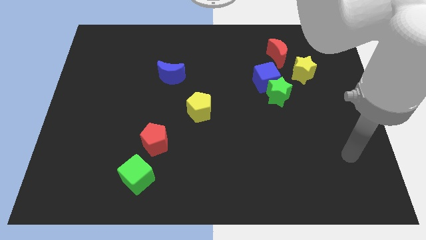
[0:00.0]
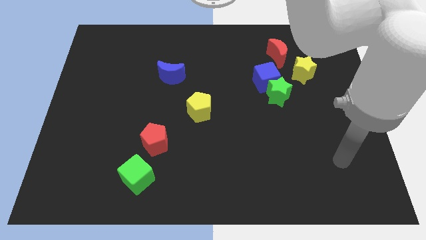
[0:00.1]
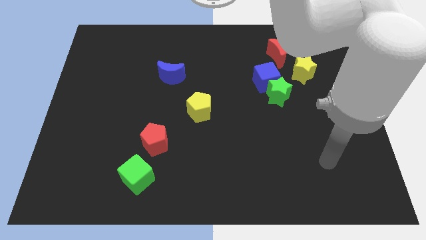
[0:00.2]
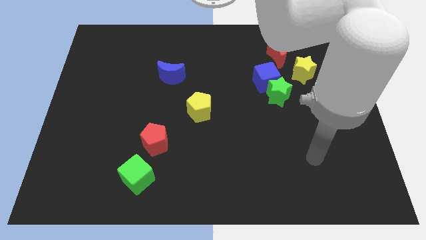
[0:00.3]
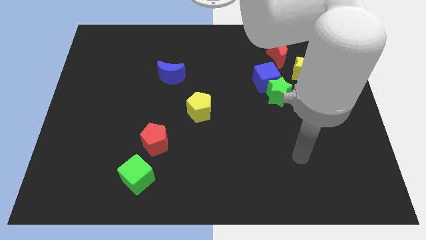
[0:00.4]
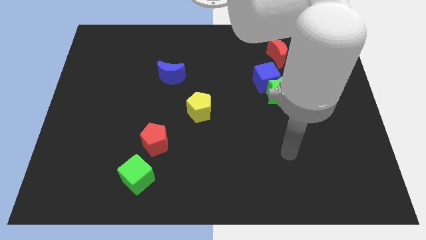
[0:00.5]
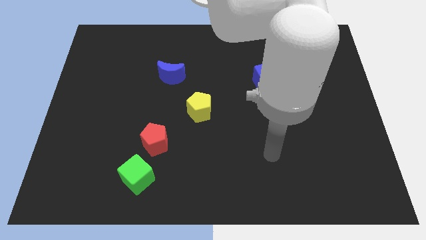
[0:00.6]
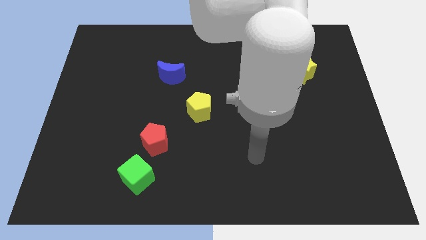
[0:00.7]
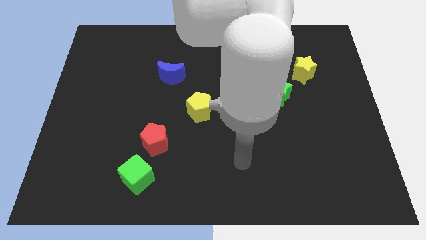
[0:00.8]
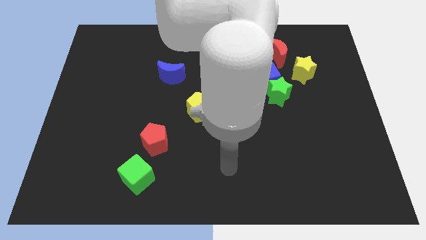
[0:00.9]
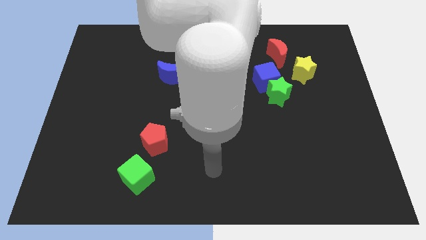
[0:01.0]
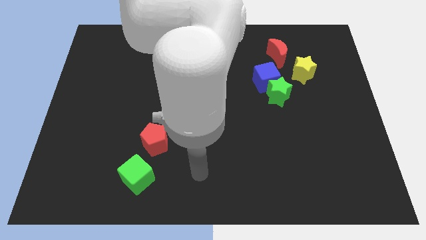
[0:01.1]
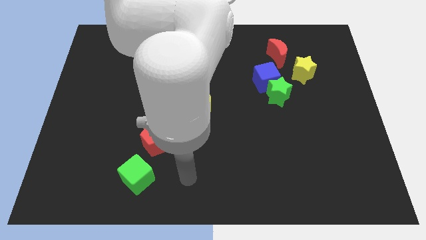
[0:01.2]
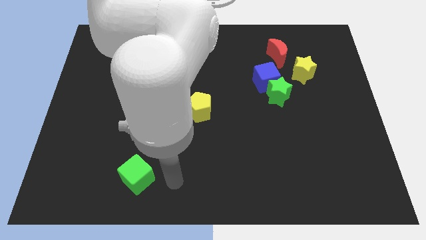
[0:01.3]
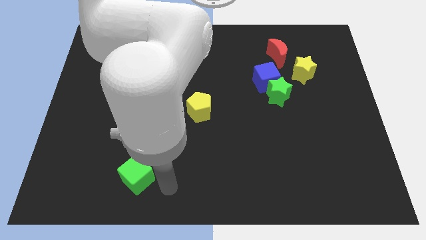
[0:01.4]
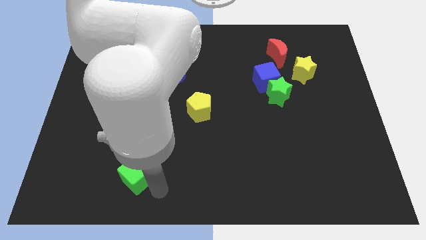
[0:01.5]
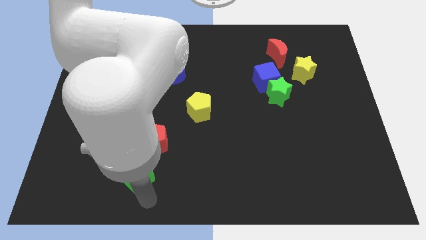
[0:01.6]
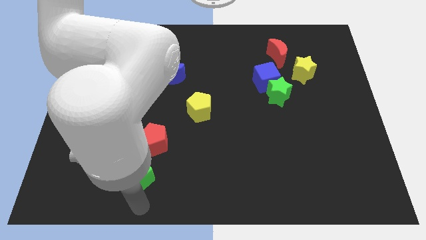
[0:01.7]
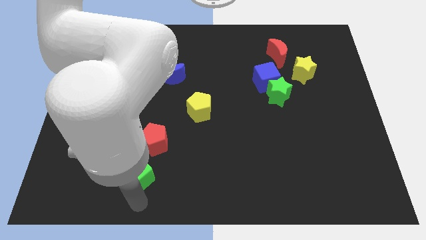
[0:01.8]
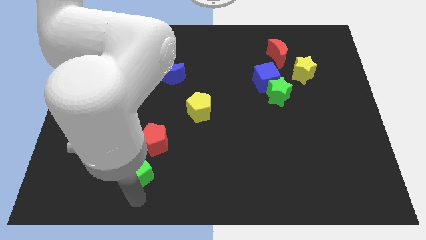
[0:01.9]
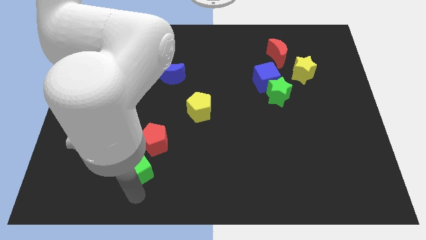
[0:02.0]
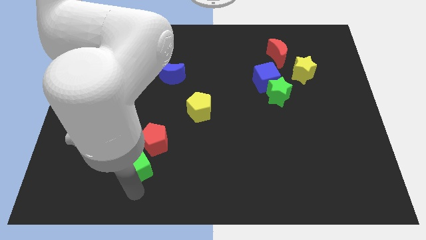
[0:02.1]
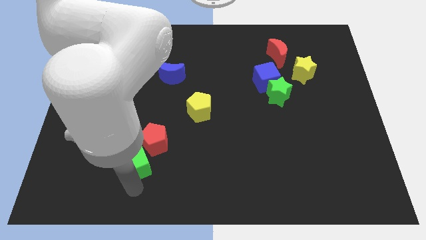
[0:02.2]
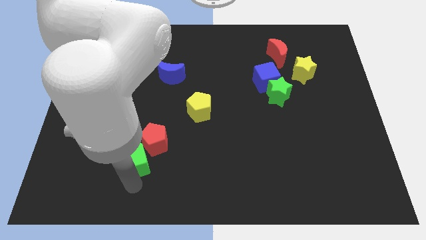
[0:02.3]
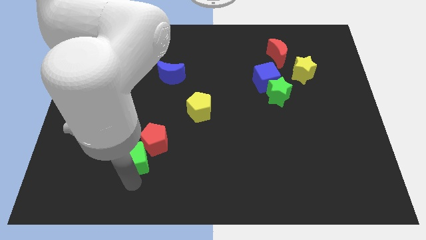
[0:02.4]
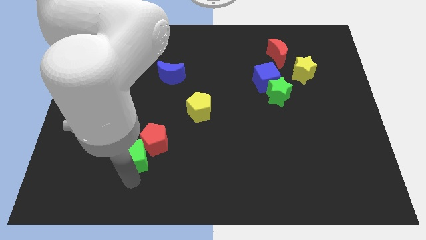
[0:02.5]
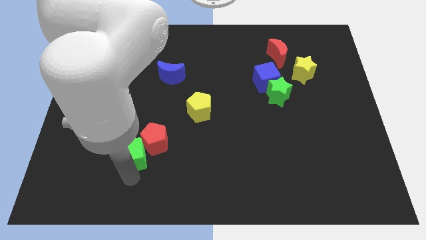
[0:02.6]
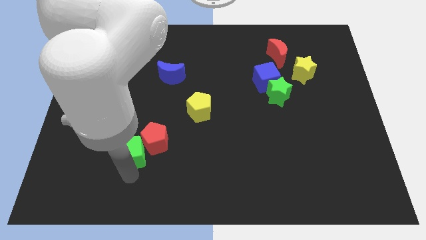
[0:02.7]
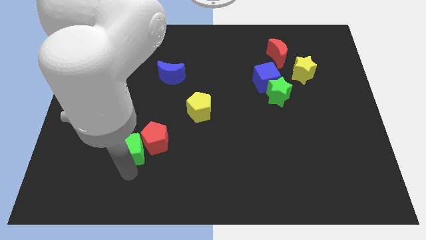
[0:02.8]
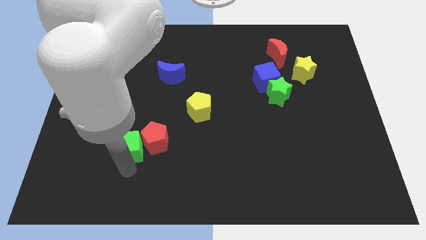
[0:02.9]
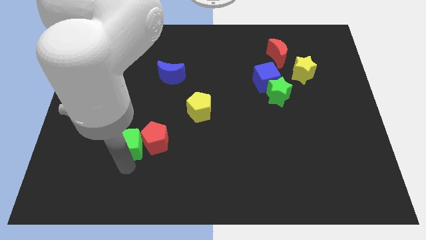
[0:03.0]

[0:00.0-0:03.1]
slightly push the green cube up

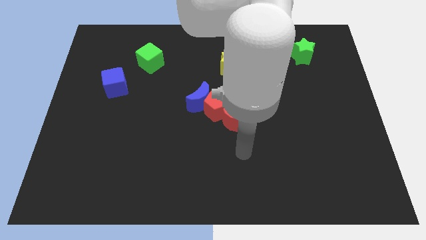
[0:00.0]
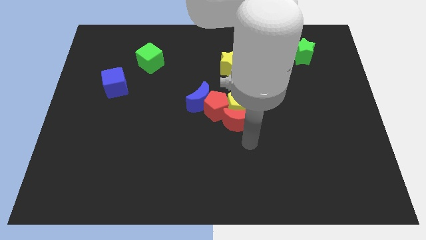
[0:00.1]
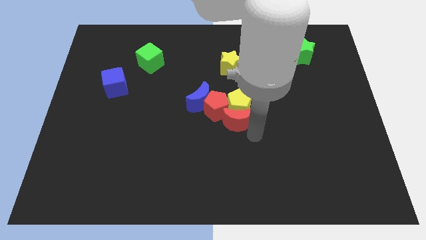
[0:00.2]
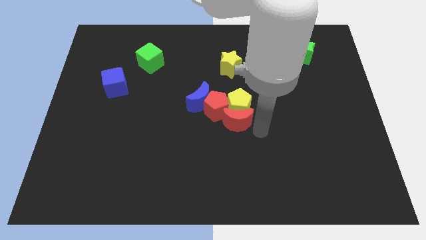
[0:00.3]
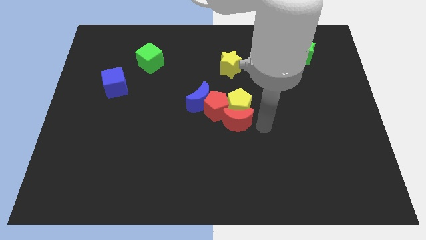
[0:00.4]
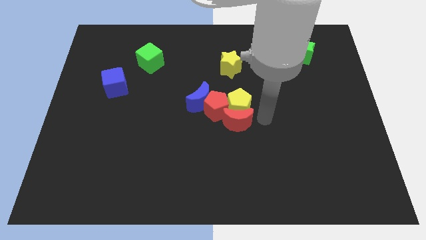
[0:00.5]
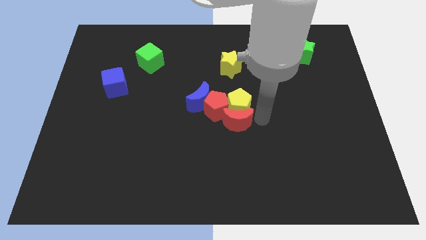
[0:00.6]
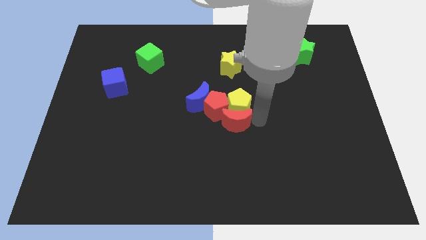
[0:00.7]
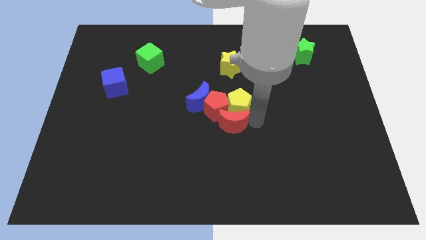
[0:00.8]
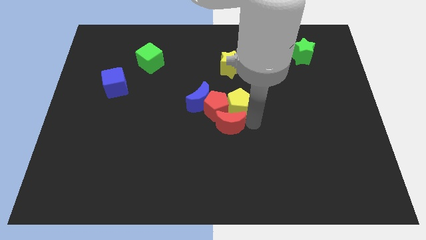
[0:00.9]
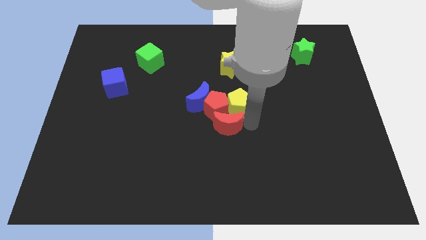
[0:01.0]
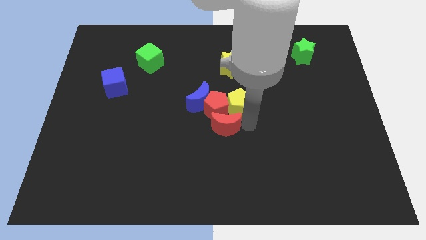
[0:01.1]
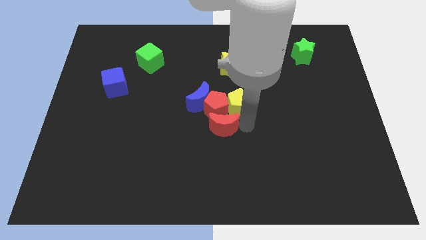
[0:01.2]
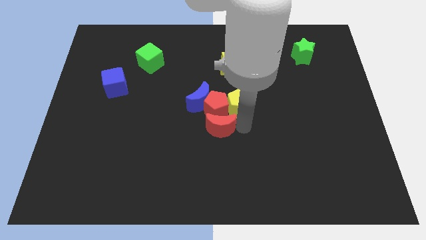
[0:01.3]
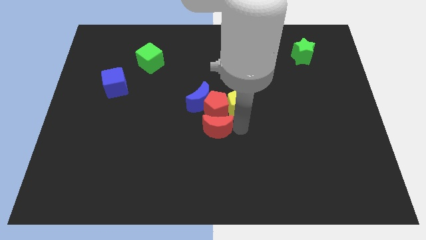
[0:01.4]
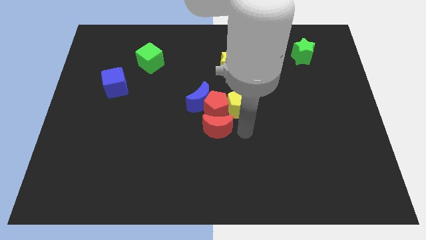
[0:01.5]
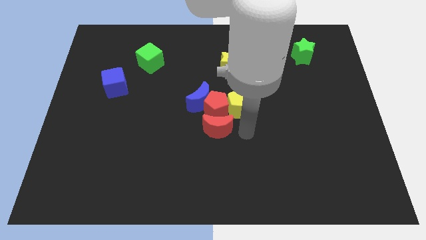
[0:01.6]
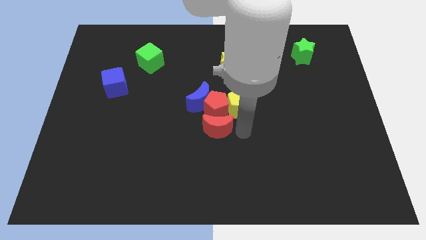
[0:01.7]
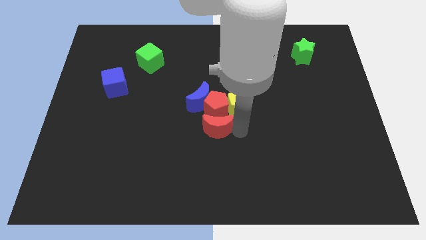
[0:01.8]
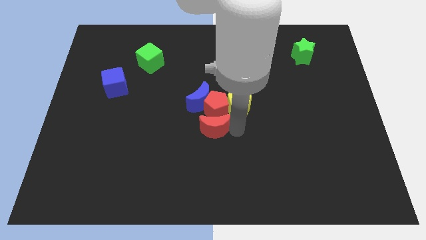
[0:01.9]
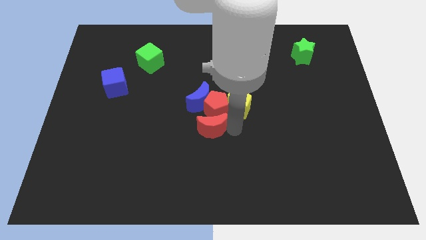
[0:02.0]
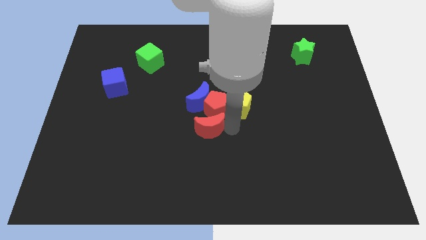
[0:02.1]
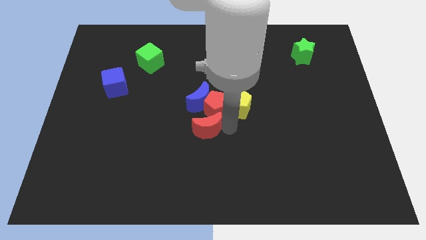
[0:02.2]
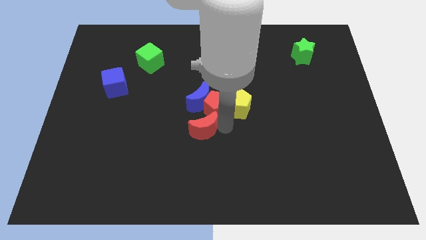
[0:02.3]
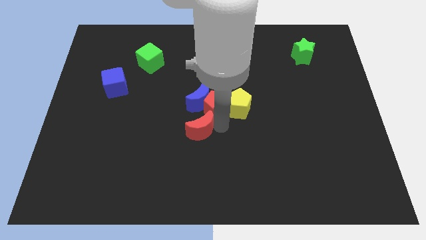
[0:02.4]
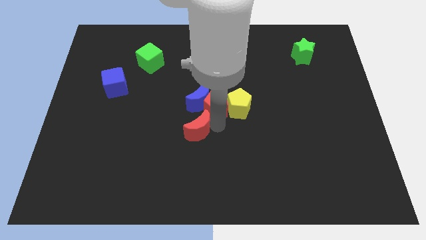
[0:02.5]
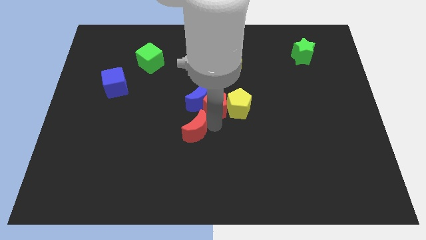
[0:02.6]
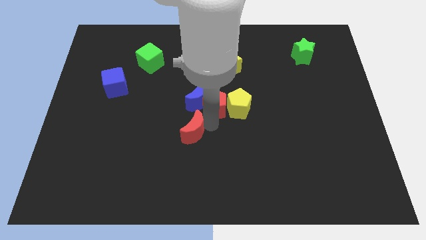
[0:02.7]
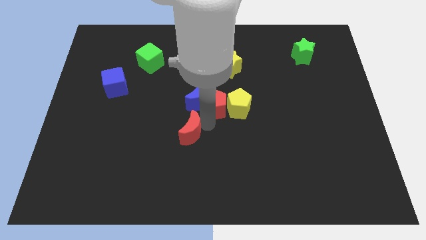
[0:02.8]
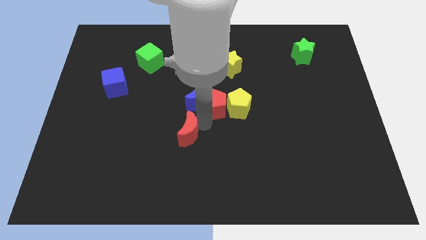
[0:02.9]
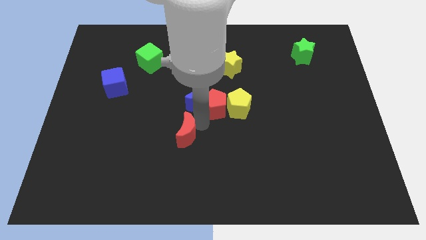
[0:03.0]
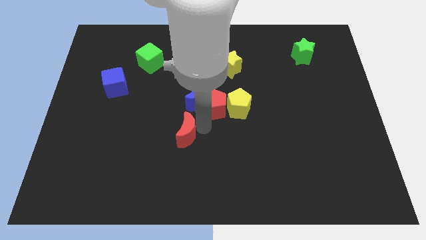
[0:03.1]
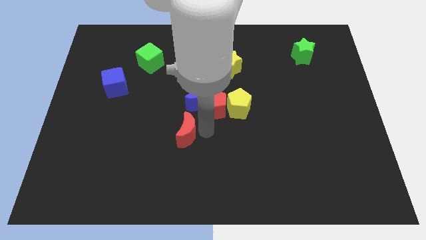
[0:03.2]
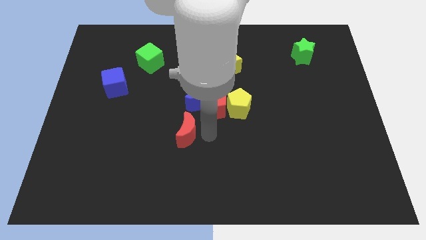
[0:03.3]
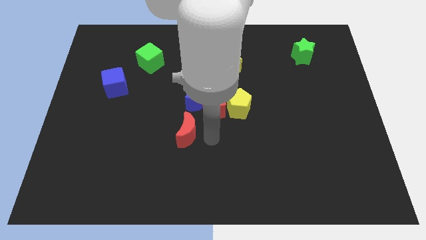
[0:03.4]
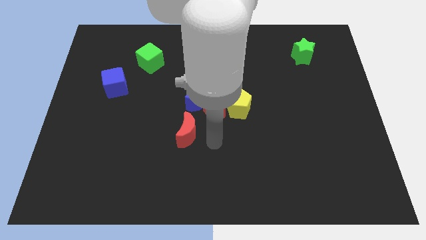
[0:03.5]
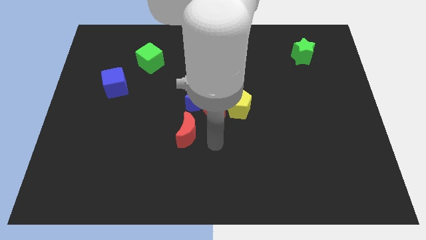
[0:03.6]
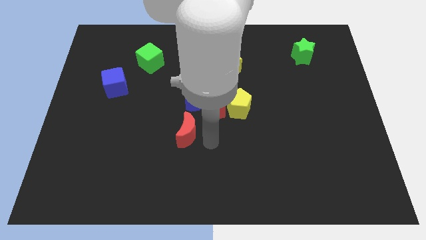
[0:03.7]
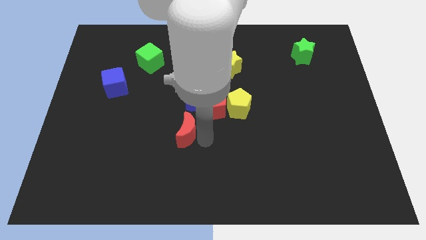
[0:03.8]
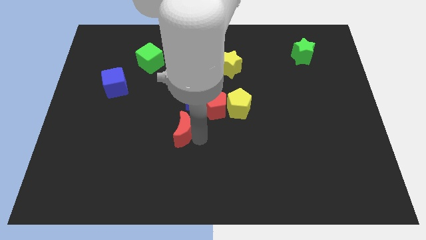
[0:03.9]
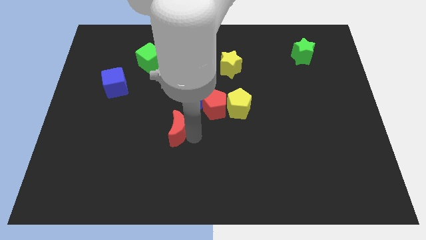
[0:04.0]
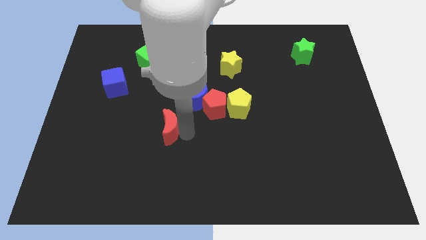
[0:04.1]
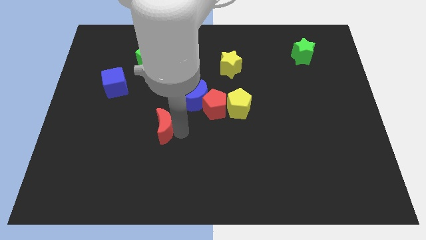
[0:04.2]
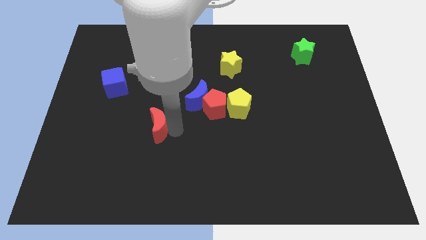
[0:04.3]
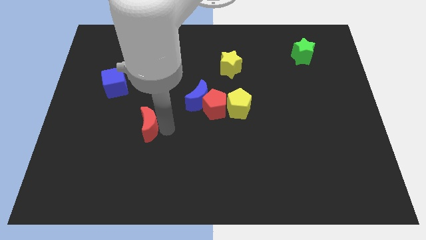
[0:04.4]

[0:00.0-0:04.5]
move the red moon to the left
